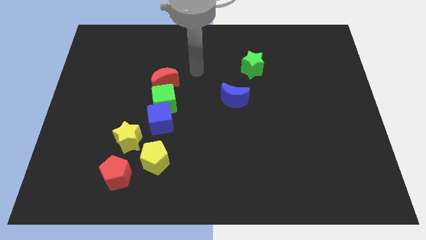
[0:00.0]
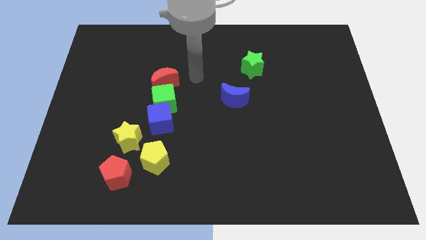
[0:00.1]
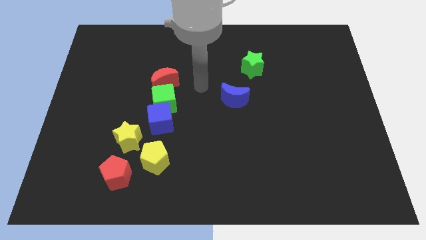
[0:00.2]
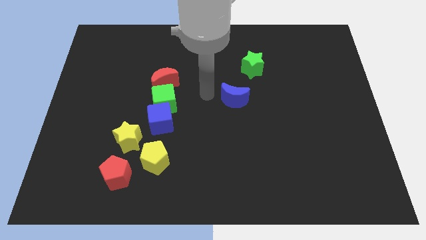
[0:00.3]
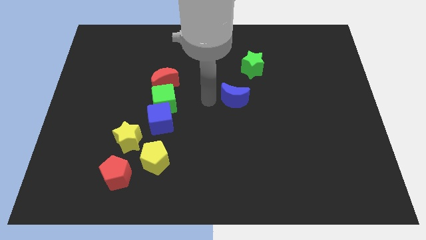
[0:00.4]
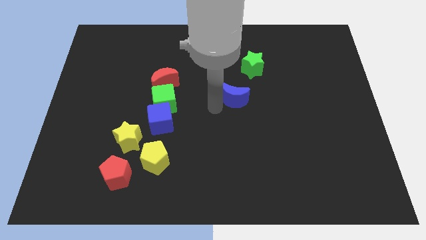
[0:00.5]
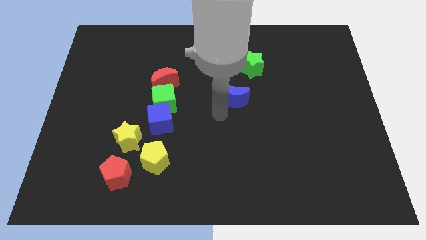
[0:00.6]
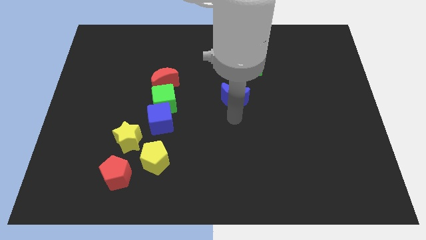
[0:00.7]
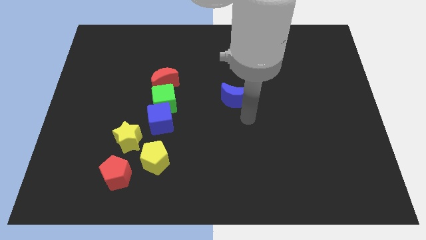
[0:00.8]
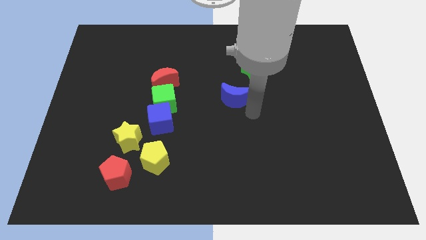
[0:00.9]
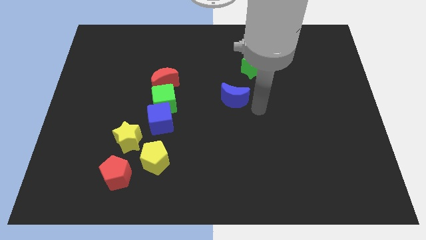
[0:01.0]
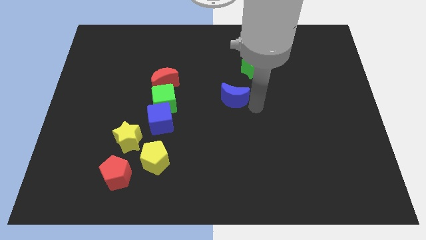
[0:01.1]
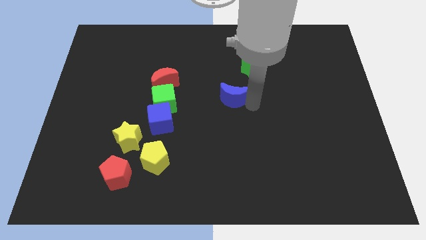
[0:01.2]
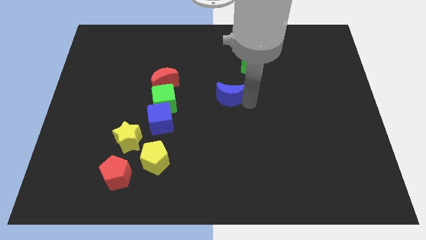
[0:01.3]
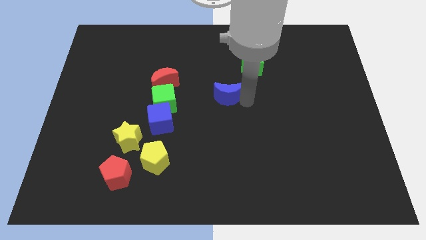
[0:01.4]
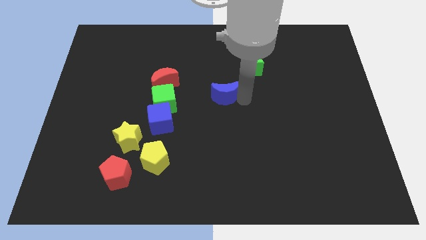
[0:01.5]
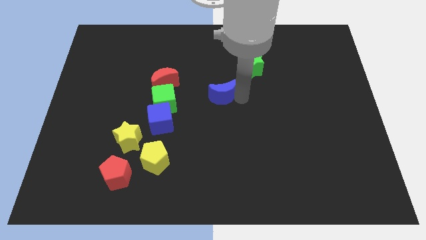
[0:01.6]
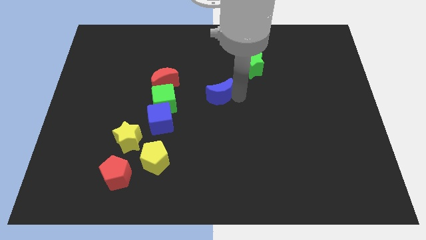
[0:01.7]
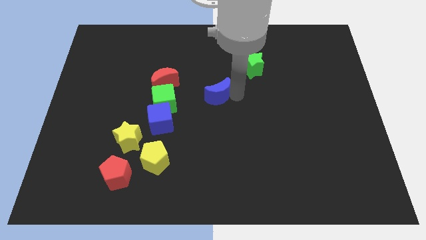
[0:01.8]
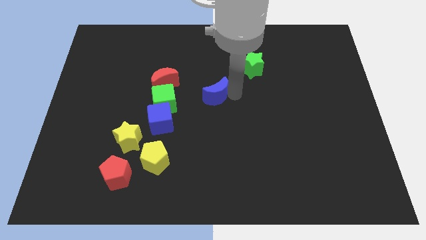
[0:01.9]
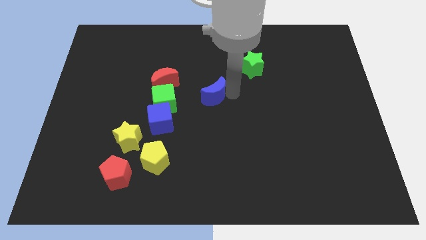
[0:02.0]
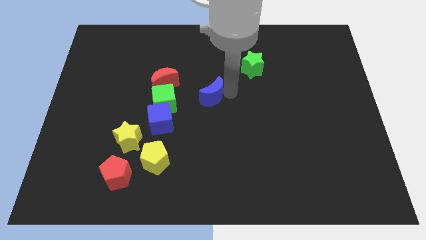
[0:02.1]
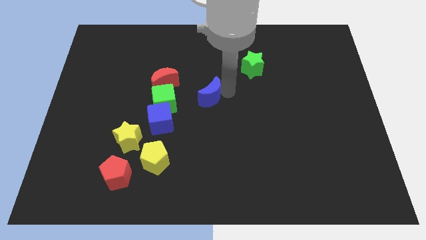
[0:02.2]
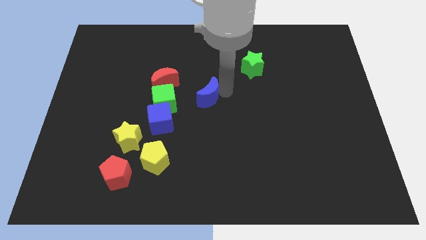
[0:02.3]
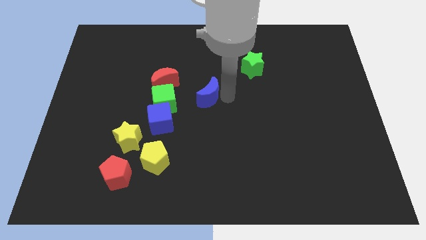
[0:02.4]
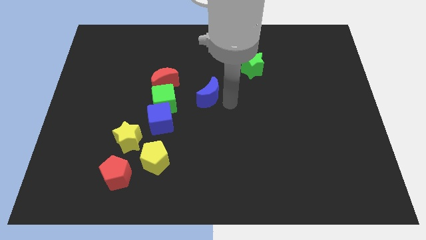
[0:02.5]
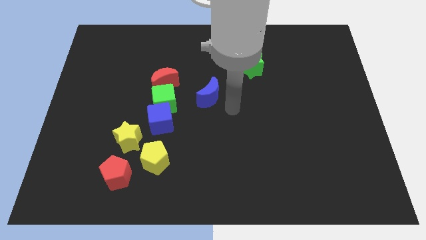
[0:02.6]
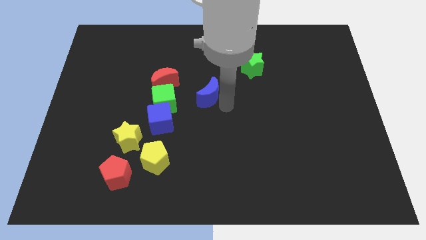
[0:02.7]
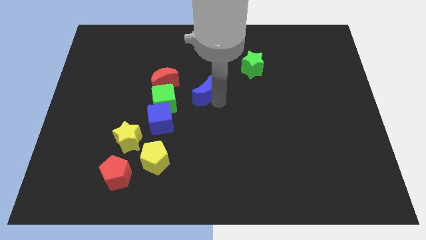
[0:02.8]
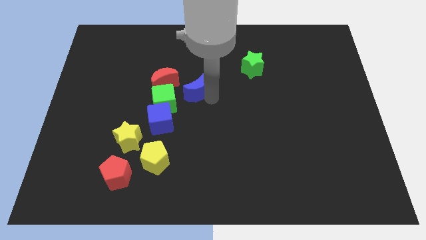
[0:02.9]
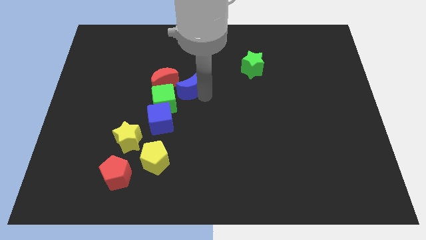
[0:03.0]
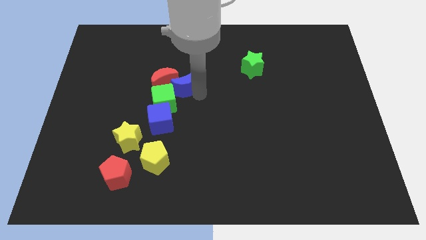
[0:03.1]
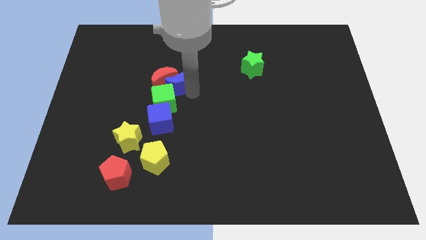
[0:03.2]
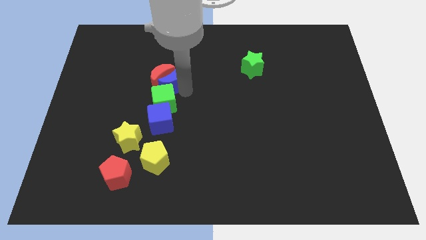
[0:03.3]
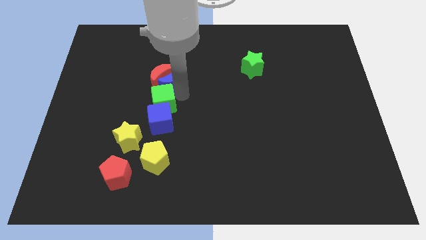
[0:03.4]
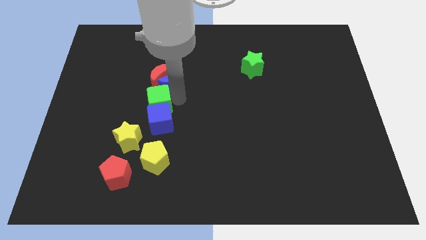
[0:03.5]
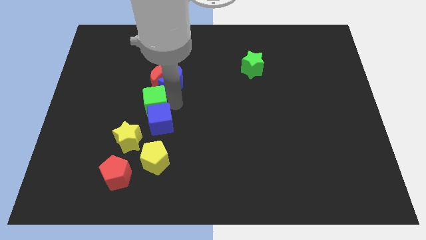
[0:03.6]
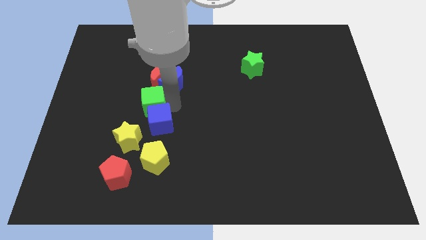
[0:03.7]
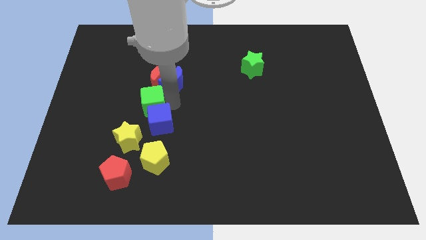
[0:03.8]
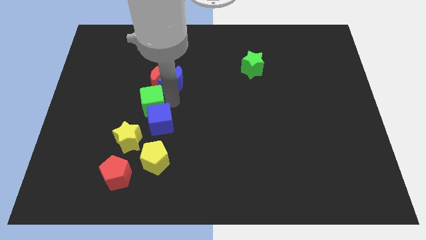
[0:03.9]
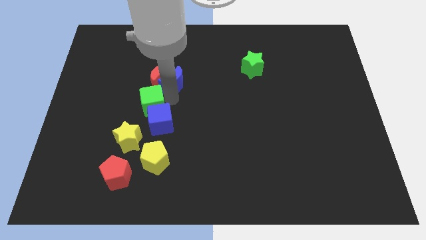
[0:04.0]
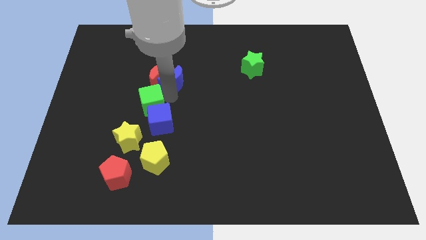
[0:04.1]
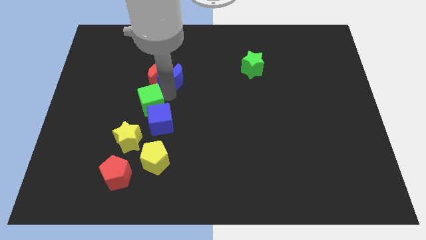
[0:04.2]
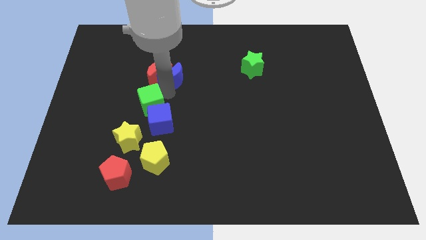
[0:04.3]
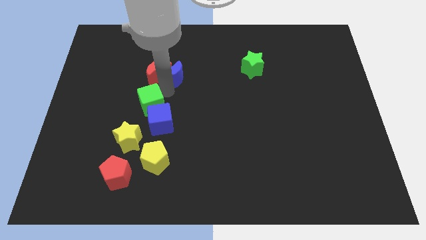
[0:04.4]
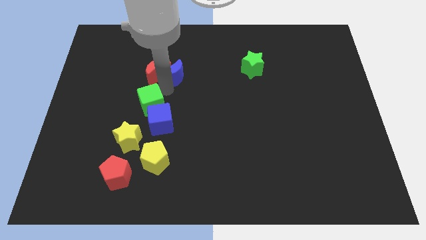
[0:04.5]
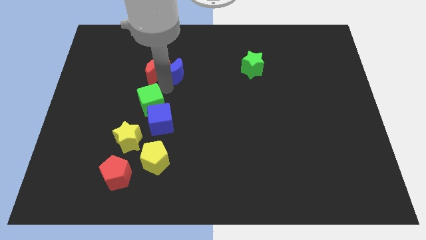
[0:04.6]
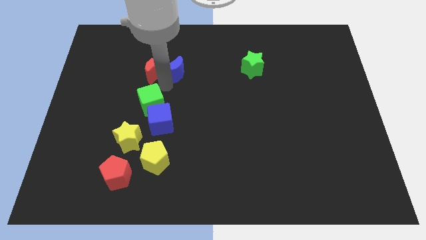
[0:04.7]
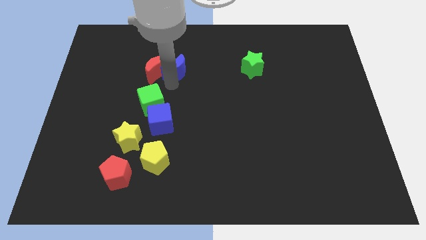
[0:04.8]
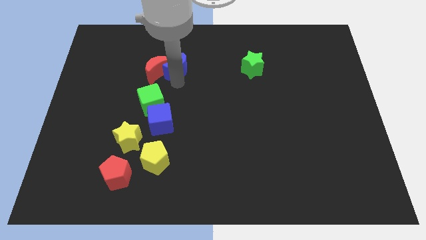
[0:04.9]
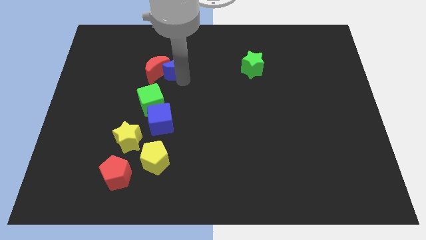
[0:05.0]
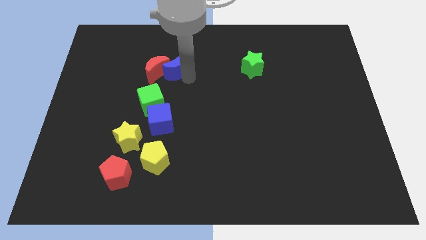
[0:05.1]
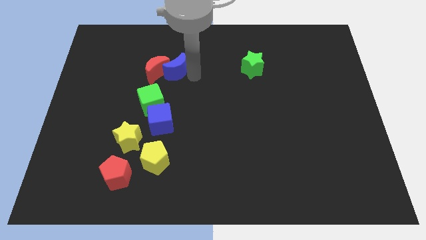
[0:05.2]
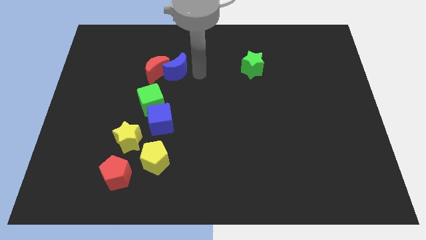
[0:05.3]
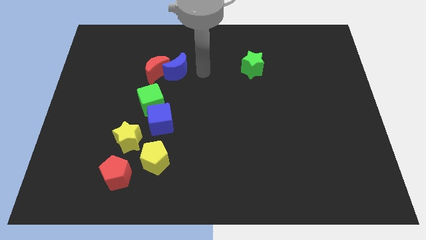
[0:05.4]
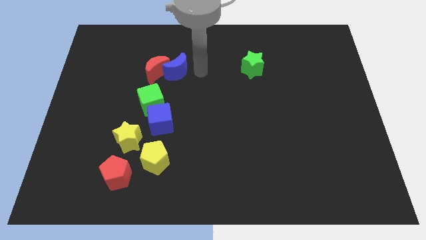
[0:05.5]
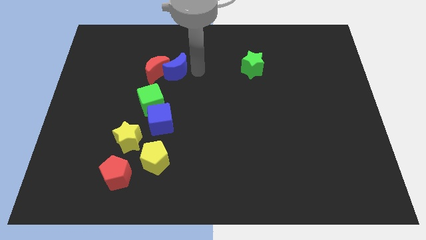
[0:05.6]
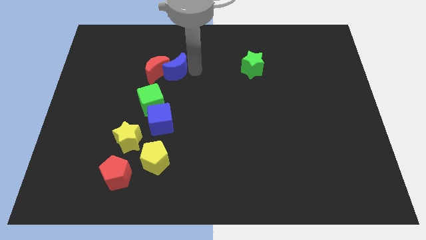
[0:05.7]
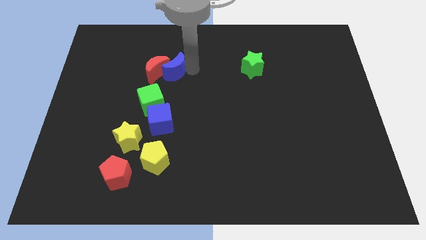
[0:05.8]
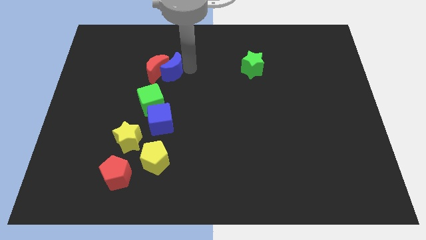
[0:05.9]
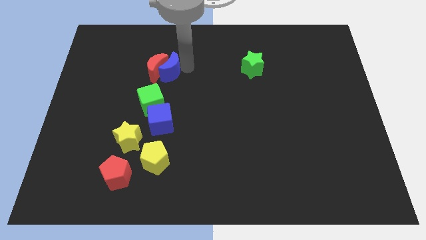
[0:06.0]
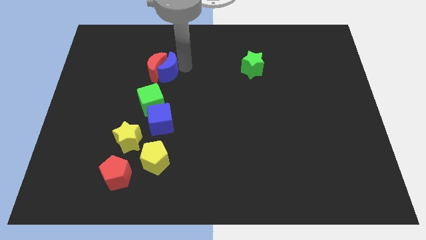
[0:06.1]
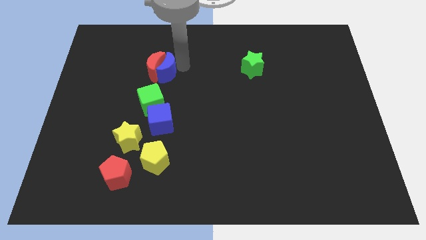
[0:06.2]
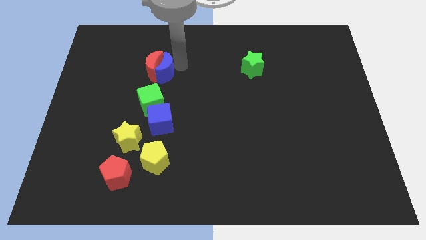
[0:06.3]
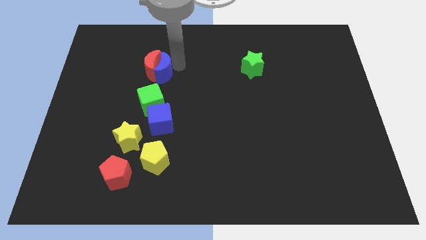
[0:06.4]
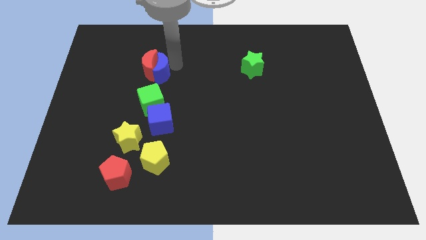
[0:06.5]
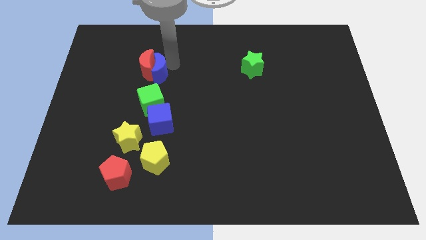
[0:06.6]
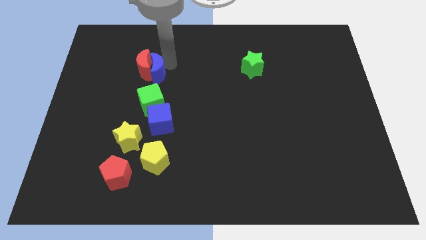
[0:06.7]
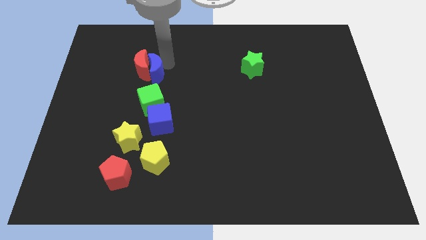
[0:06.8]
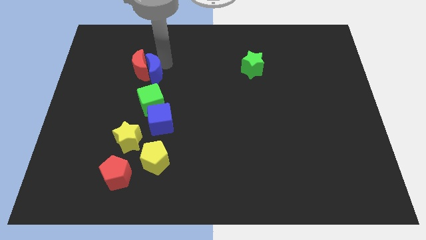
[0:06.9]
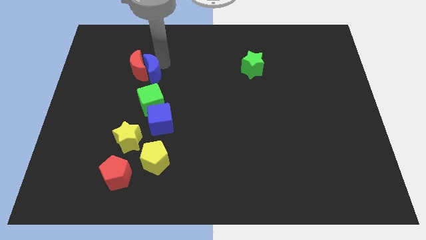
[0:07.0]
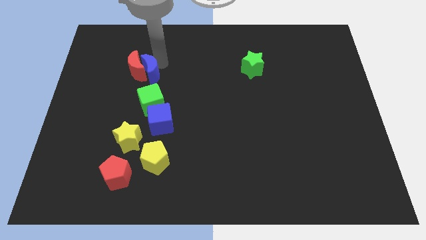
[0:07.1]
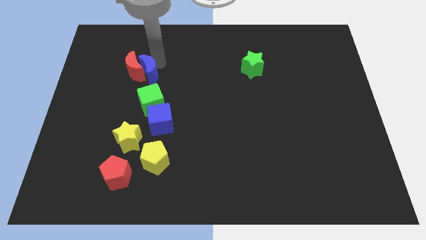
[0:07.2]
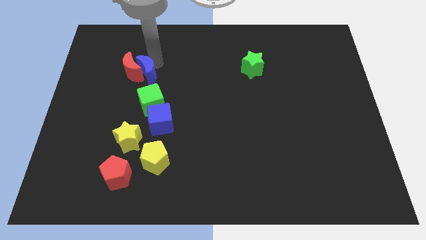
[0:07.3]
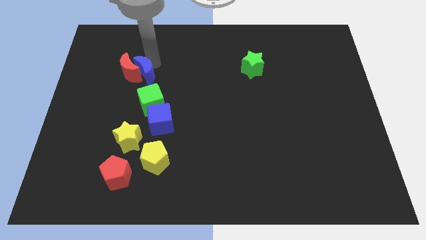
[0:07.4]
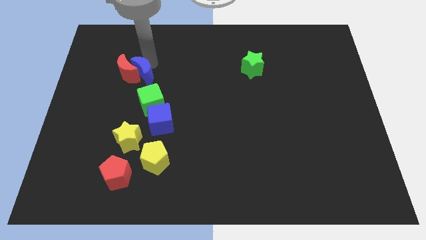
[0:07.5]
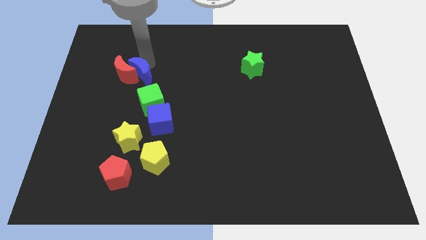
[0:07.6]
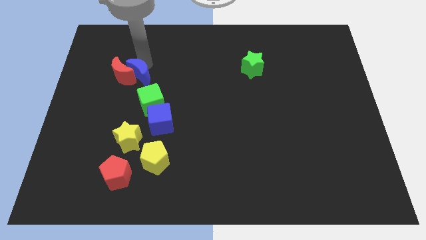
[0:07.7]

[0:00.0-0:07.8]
slide the blue moon left
